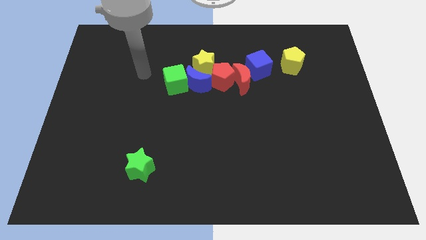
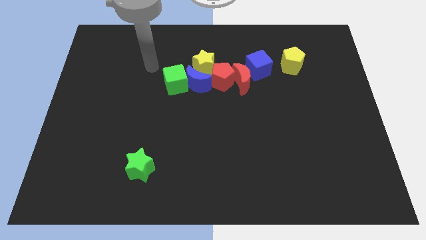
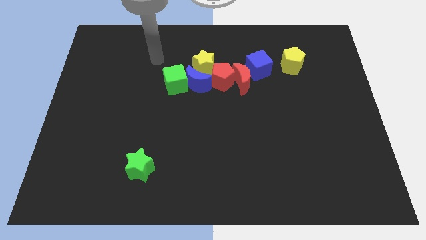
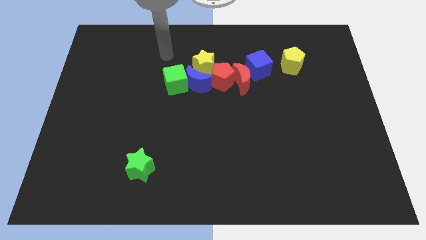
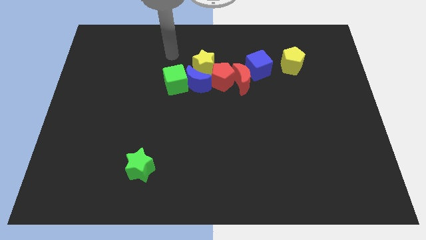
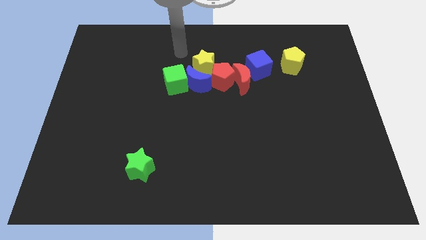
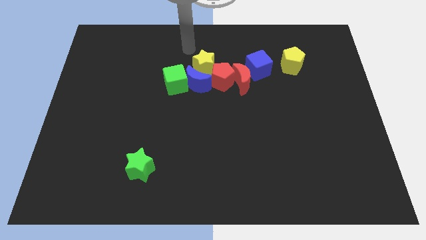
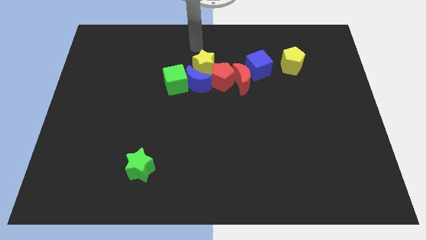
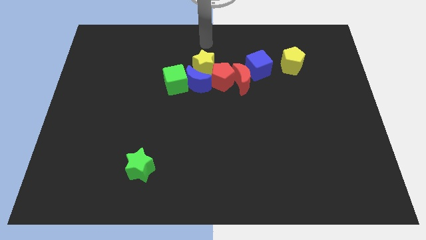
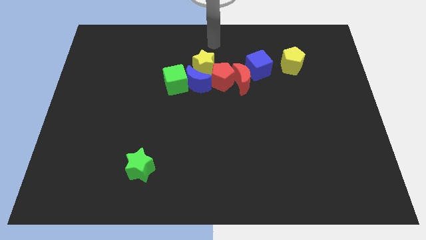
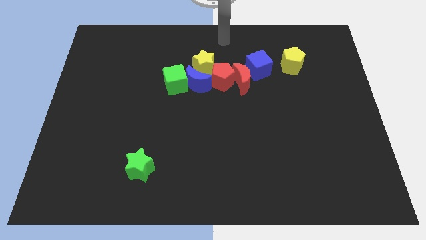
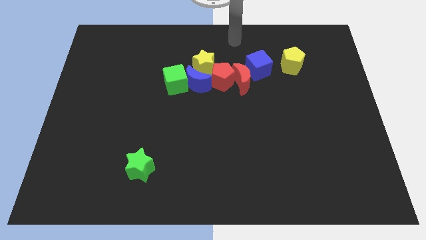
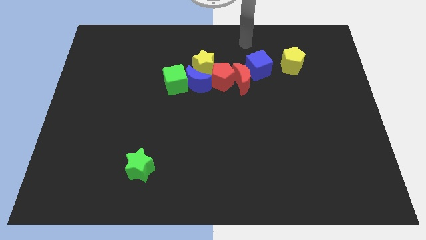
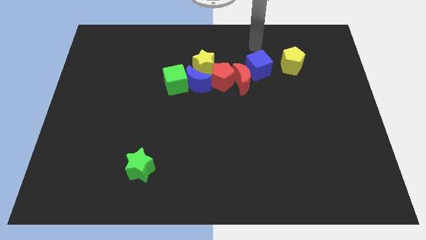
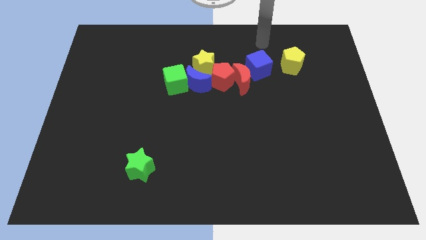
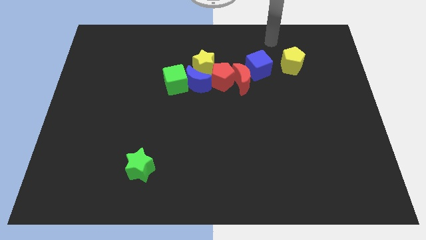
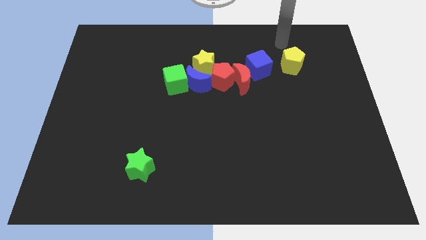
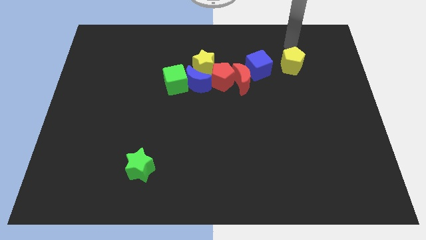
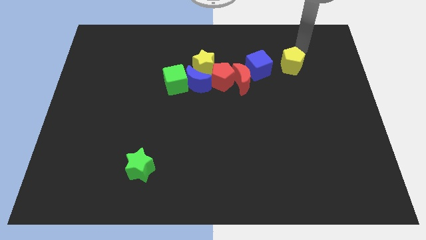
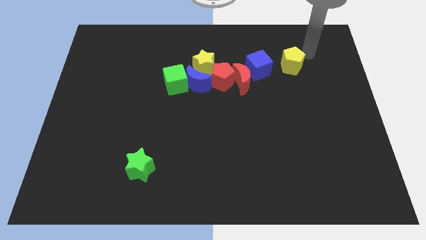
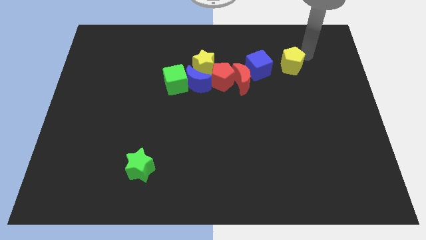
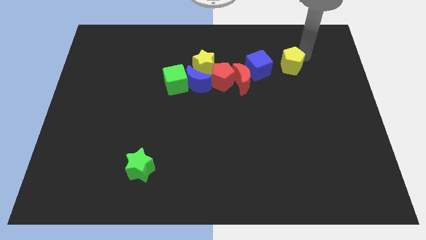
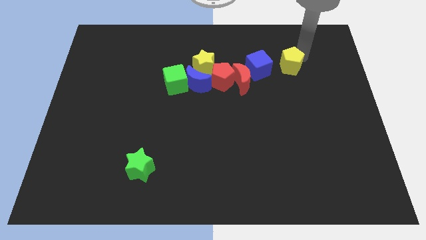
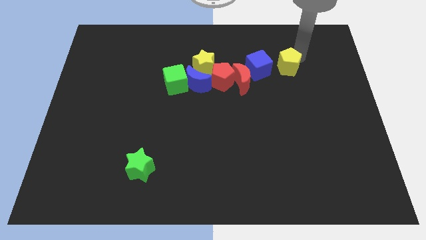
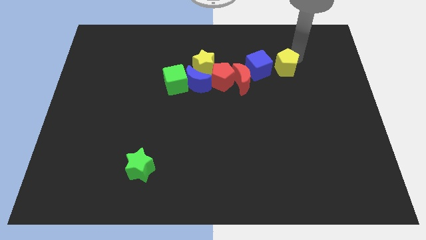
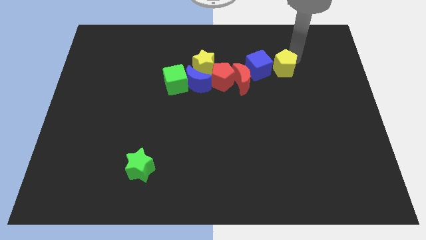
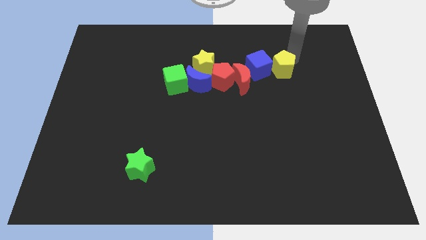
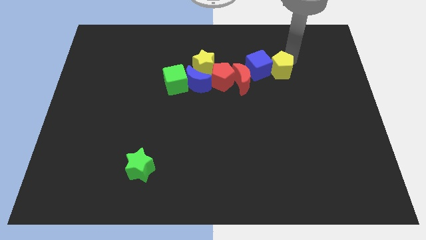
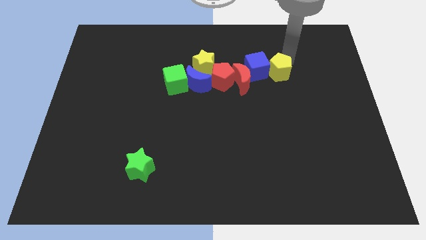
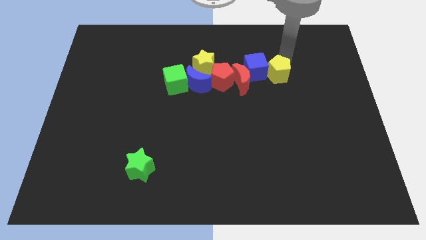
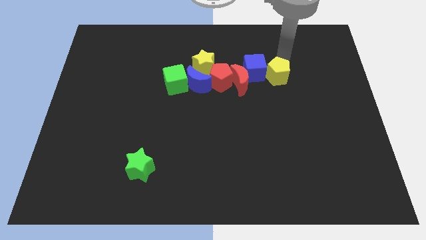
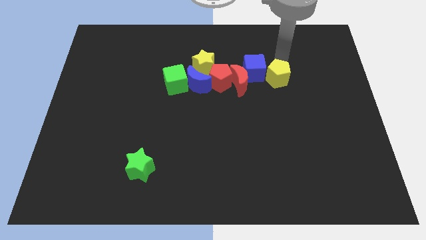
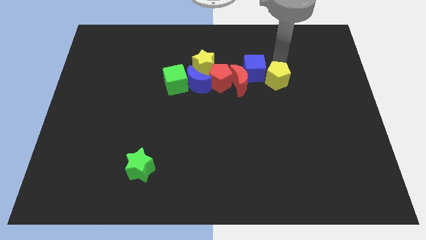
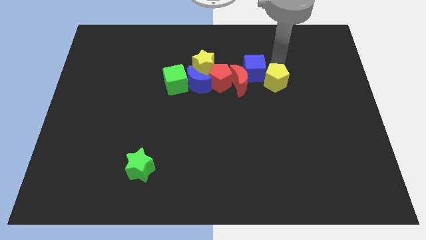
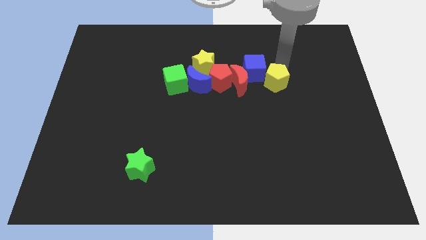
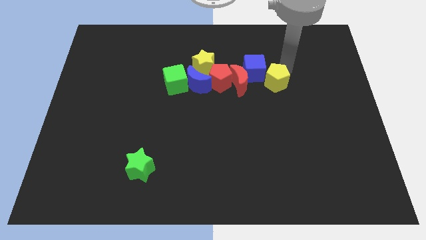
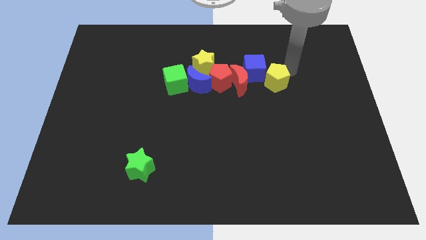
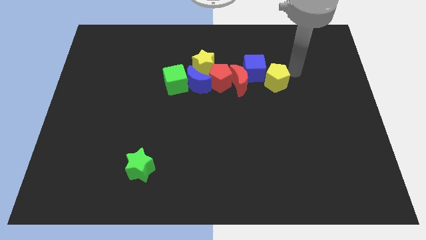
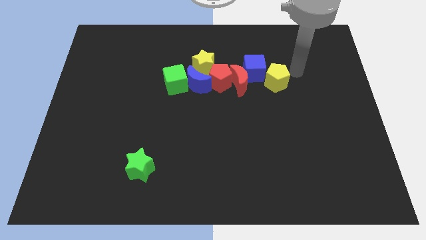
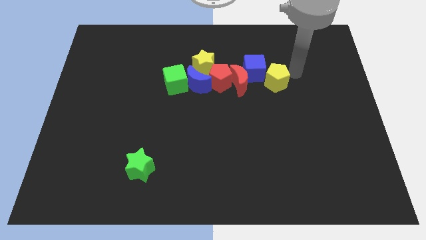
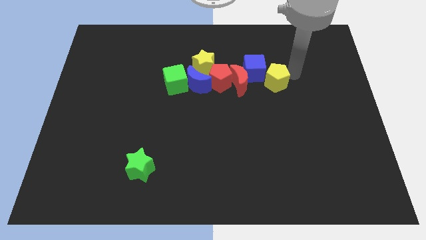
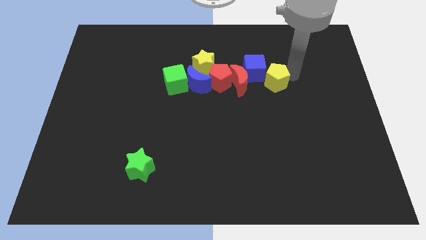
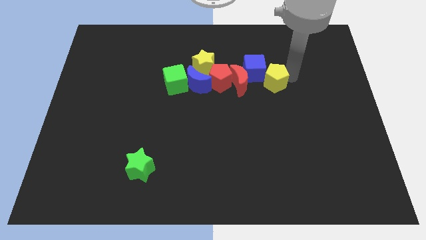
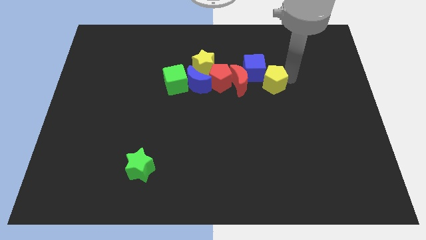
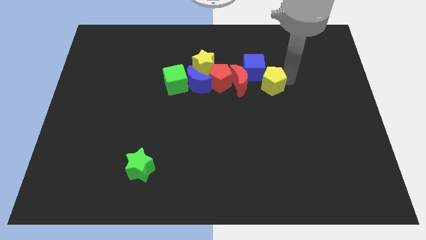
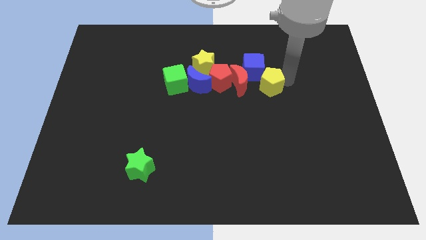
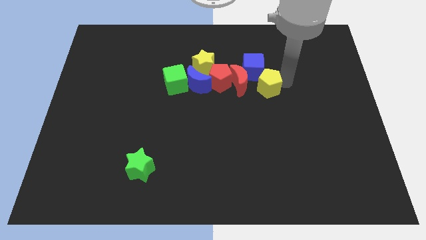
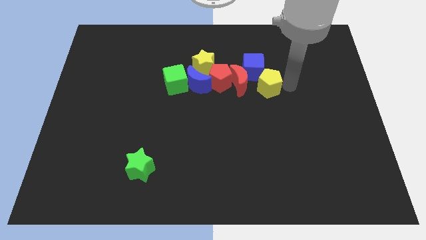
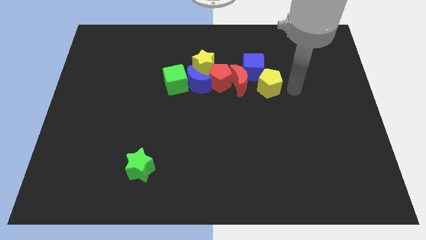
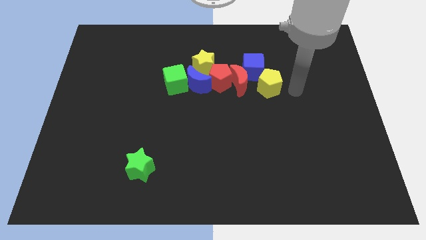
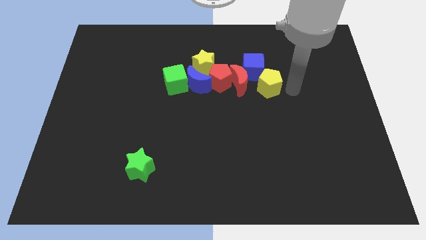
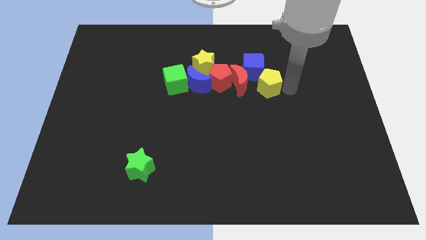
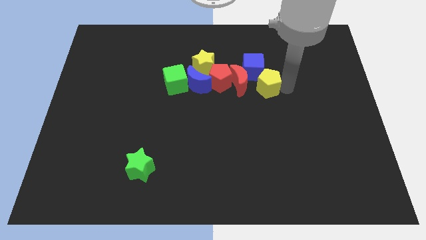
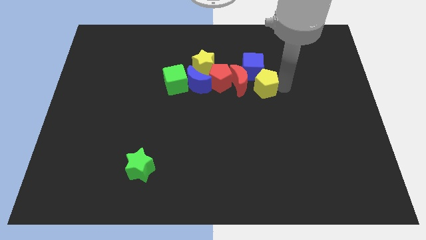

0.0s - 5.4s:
push the yellow pentagon towards the red moon

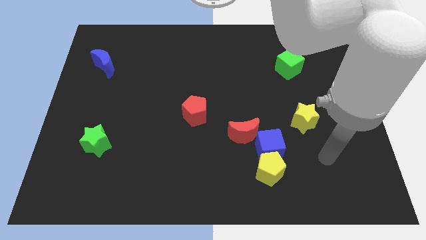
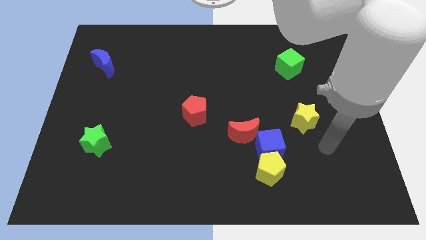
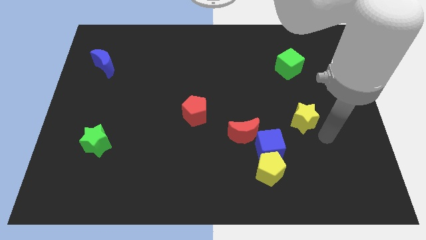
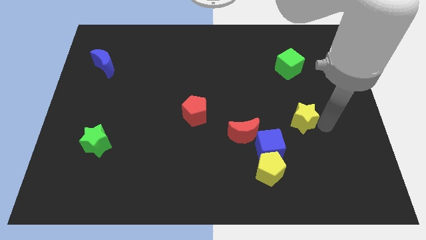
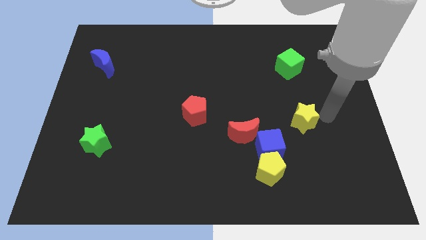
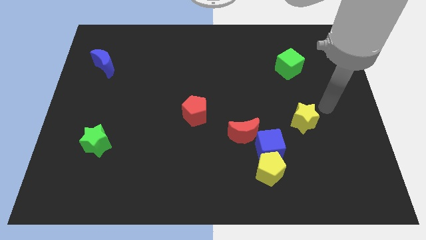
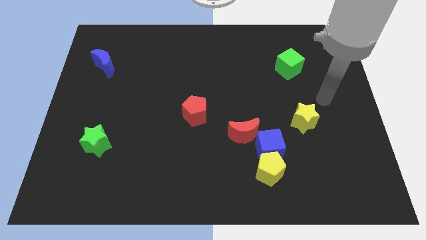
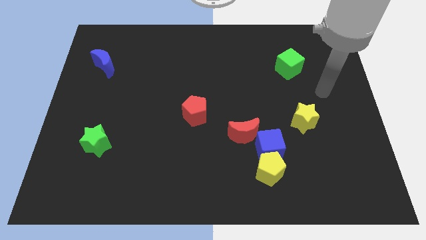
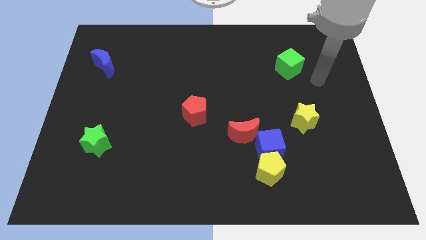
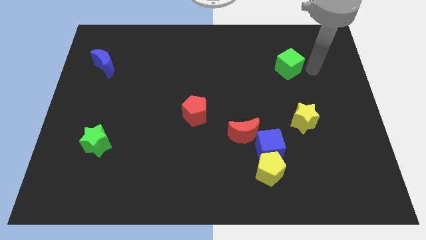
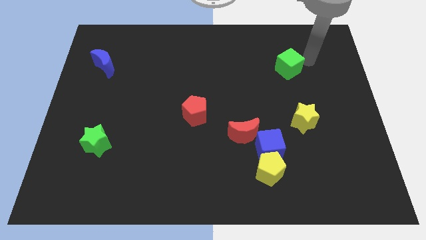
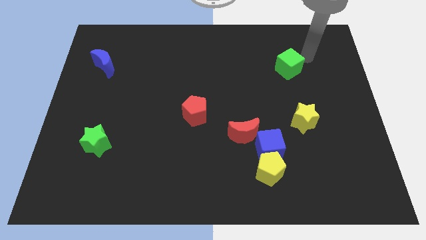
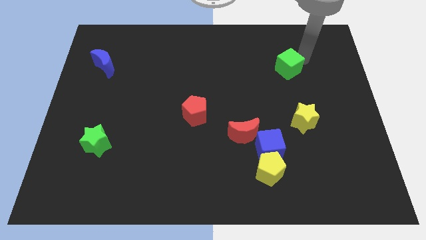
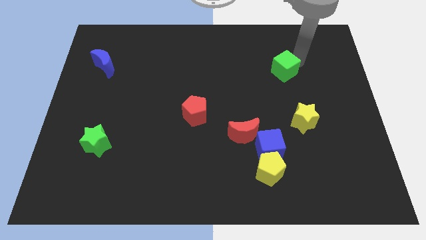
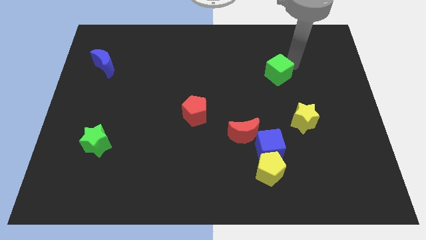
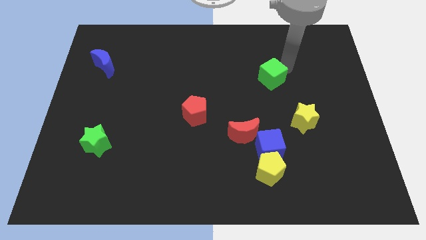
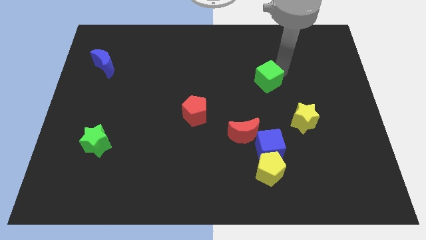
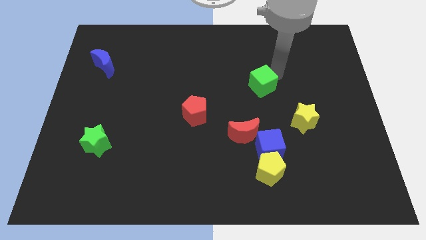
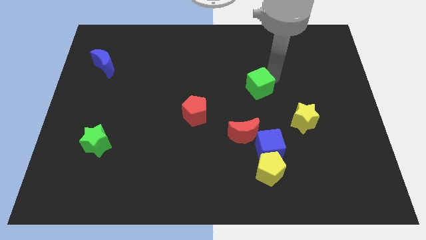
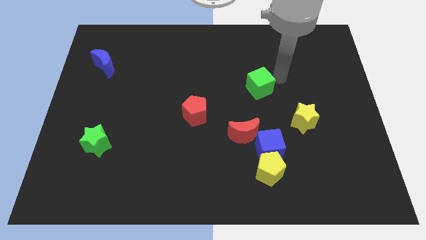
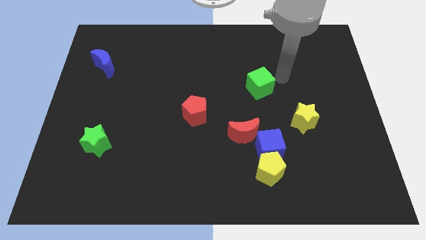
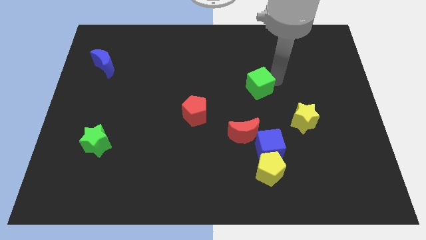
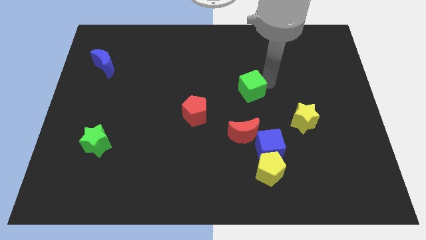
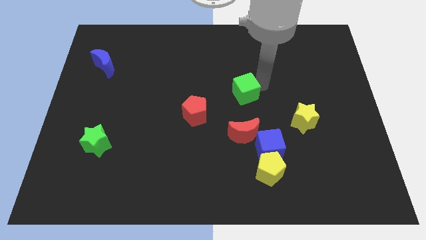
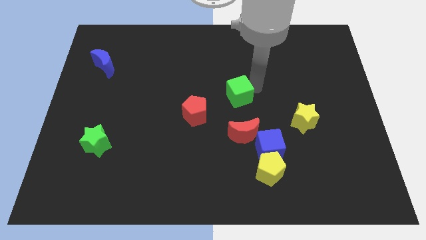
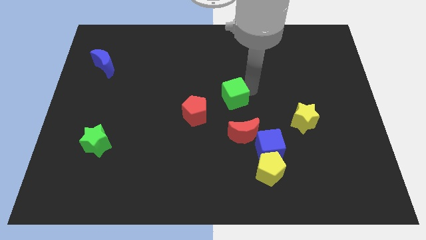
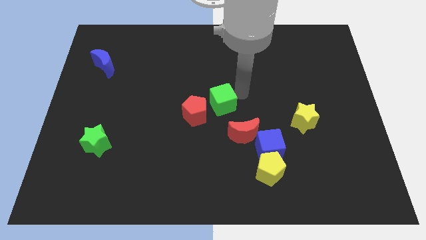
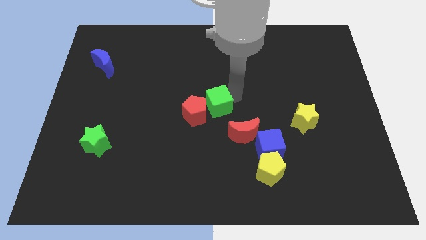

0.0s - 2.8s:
slide the green cube towards the red pentagon
